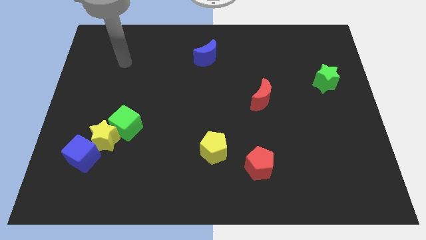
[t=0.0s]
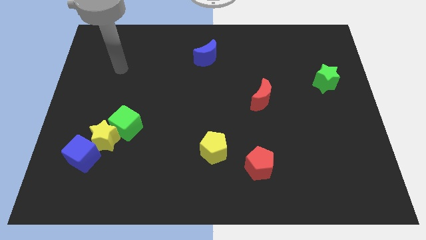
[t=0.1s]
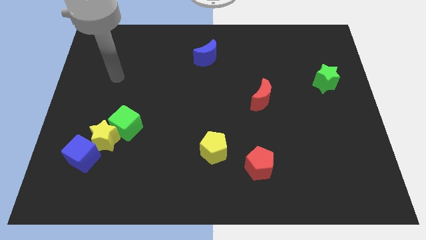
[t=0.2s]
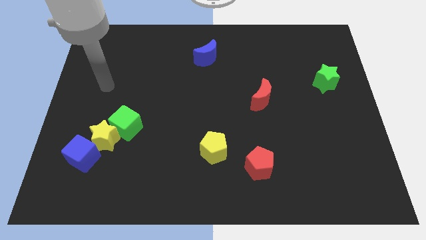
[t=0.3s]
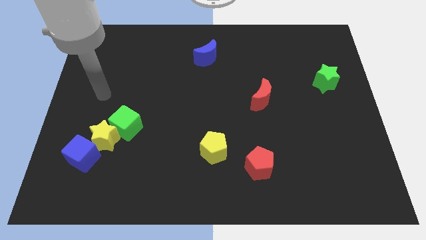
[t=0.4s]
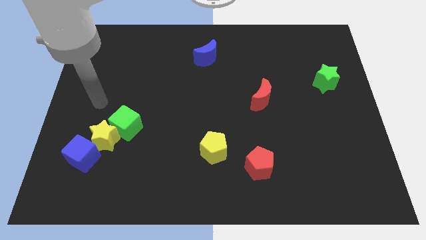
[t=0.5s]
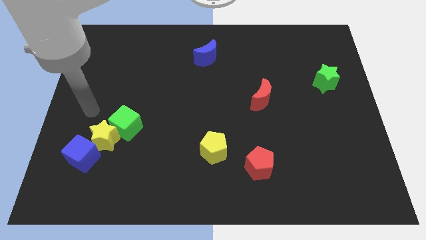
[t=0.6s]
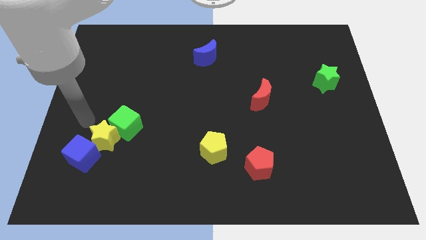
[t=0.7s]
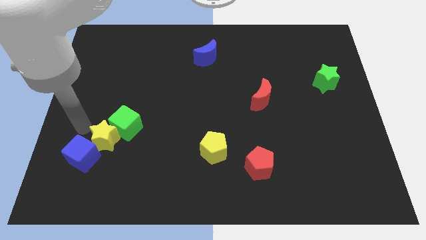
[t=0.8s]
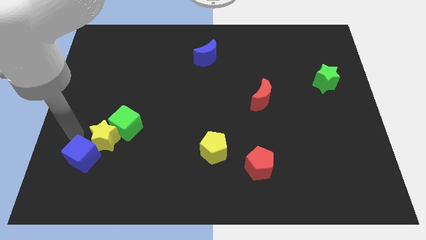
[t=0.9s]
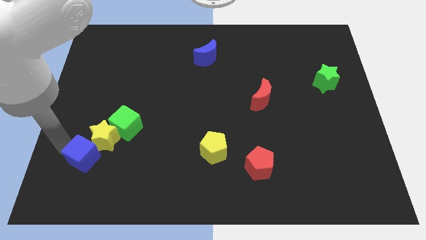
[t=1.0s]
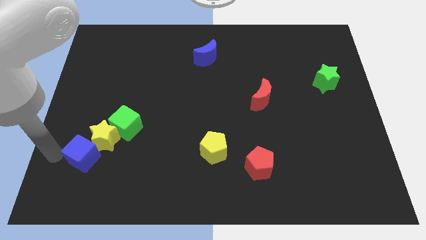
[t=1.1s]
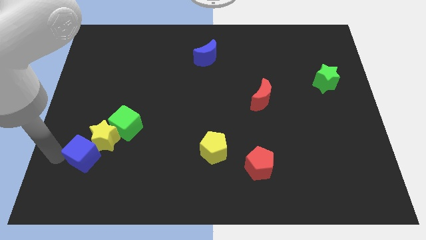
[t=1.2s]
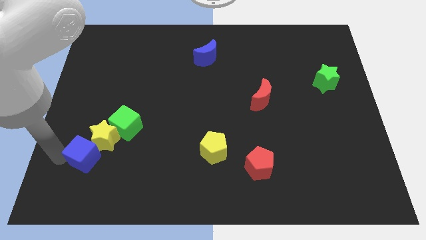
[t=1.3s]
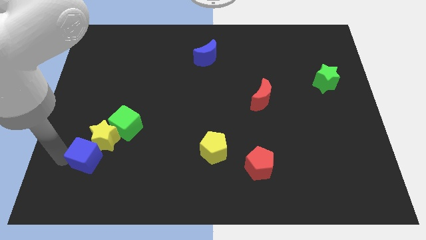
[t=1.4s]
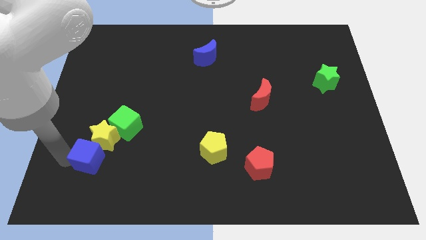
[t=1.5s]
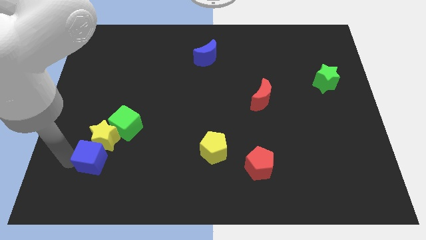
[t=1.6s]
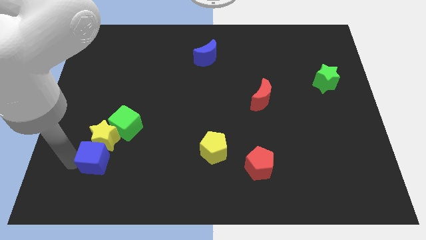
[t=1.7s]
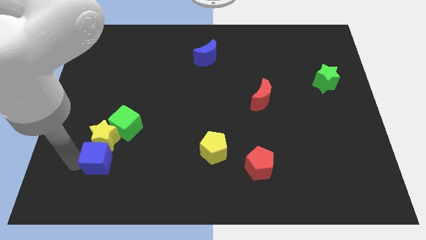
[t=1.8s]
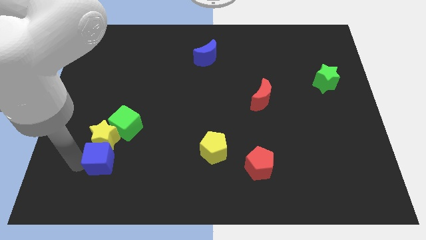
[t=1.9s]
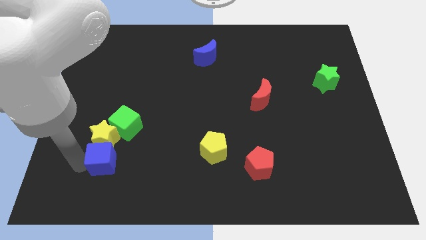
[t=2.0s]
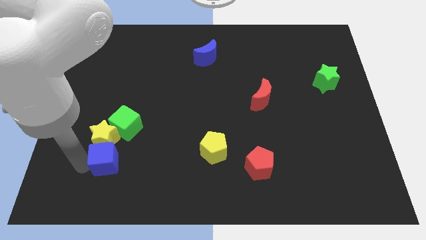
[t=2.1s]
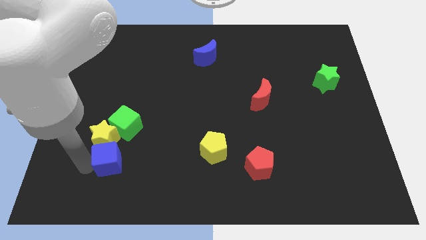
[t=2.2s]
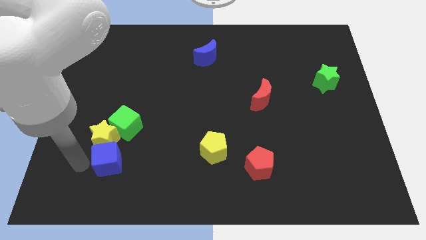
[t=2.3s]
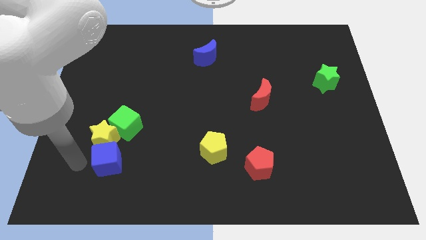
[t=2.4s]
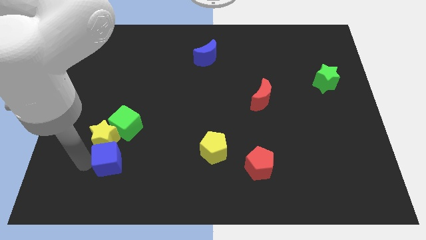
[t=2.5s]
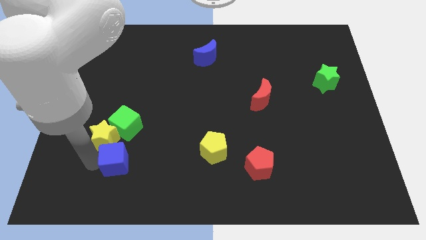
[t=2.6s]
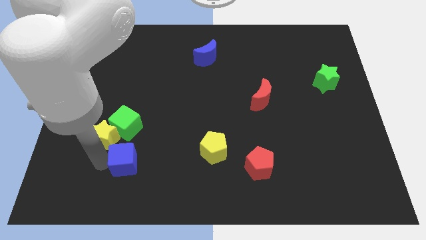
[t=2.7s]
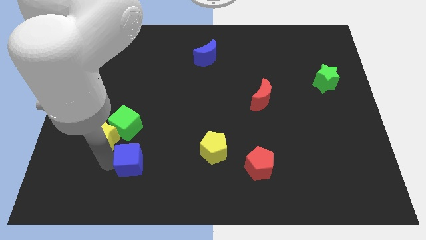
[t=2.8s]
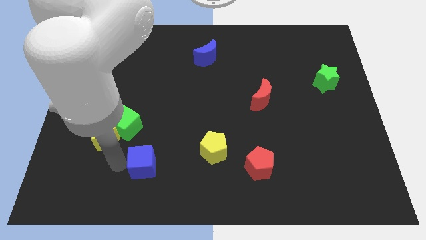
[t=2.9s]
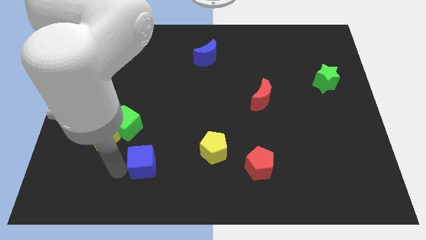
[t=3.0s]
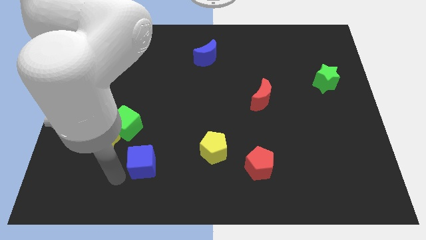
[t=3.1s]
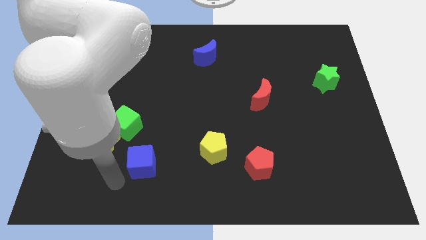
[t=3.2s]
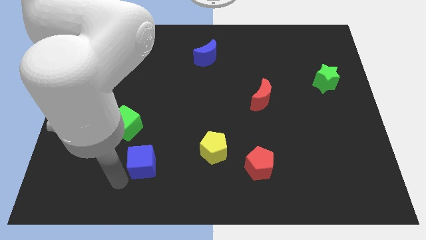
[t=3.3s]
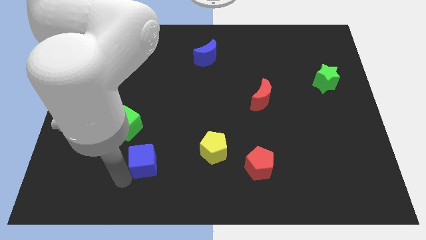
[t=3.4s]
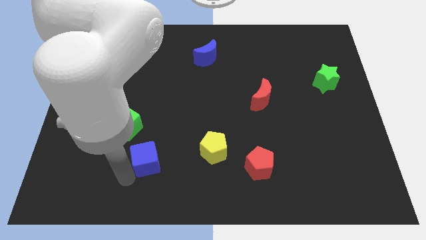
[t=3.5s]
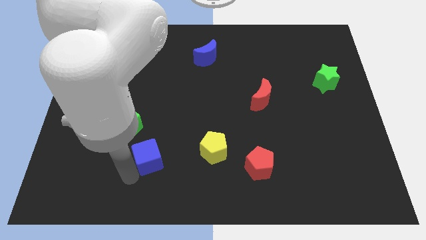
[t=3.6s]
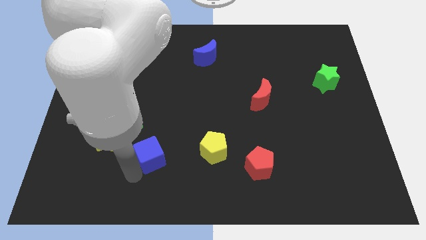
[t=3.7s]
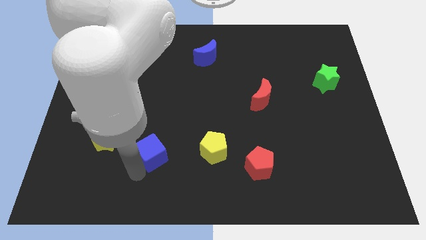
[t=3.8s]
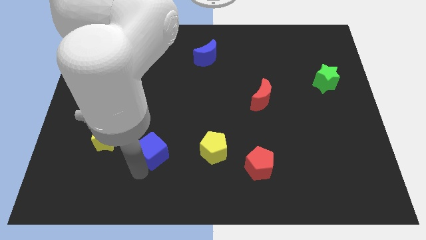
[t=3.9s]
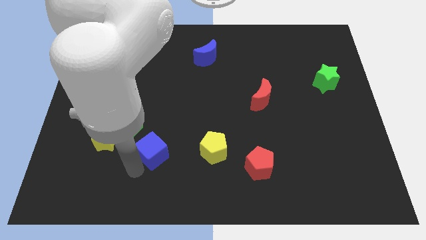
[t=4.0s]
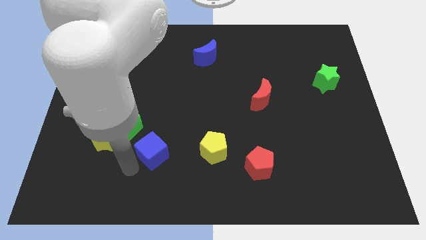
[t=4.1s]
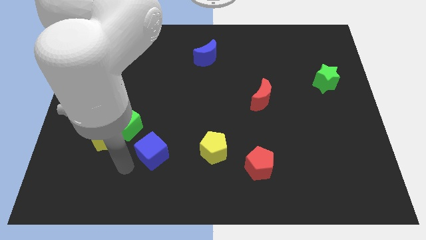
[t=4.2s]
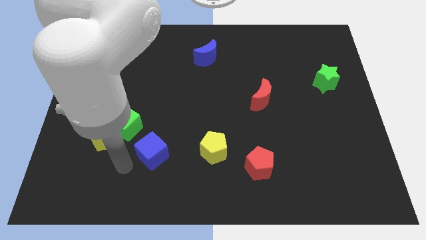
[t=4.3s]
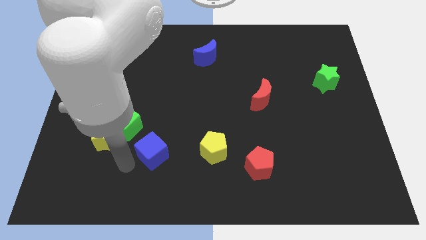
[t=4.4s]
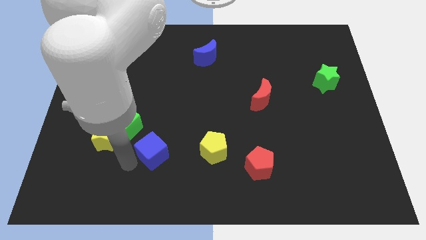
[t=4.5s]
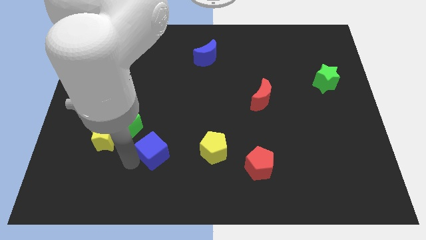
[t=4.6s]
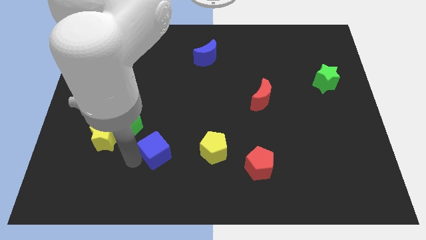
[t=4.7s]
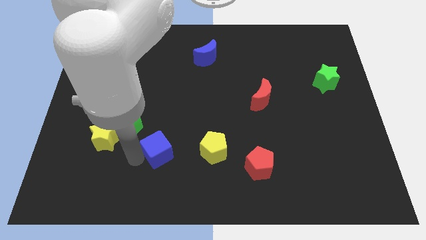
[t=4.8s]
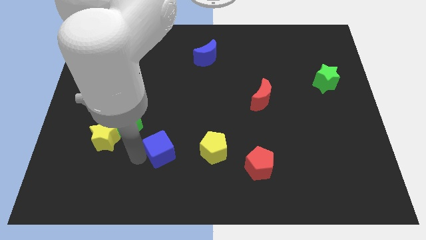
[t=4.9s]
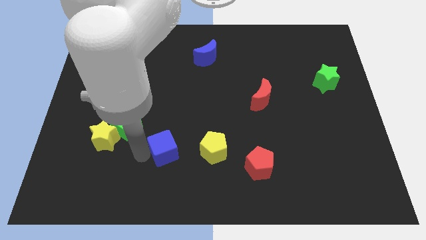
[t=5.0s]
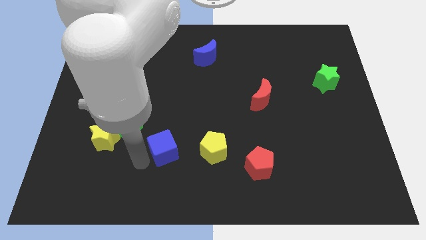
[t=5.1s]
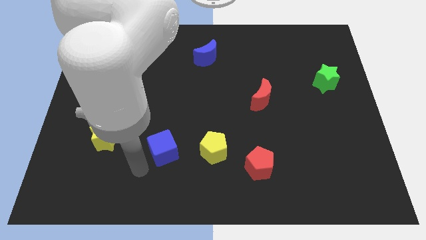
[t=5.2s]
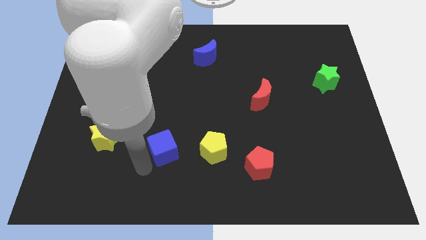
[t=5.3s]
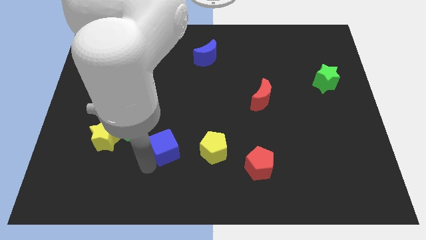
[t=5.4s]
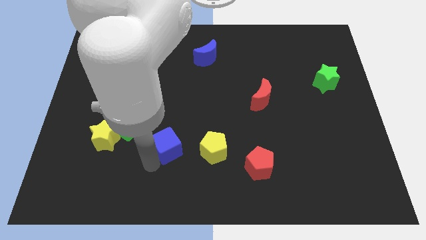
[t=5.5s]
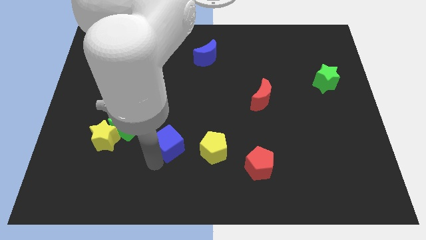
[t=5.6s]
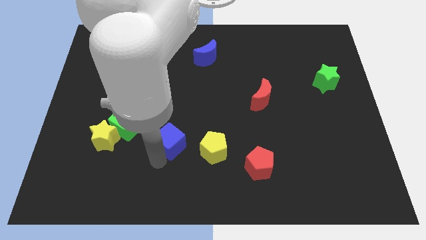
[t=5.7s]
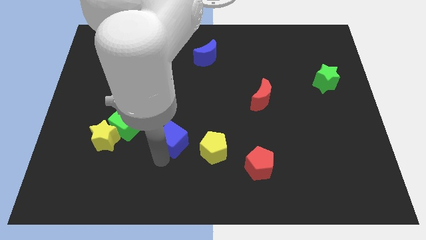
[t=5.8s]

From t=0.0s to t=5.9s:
slide the blue cube diagonally up and to the left of the yellow pentagon

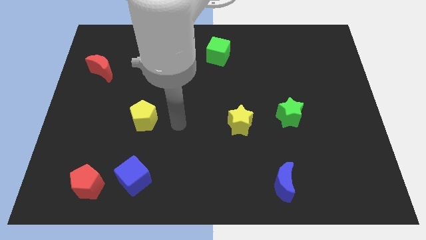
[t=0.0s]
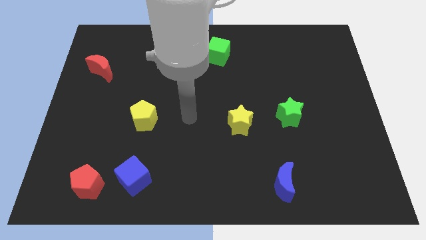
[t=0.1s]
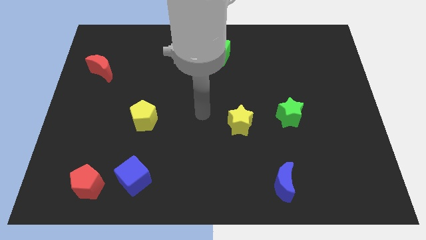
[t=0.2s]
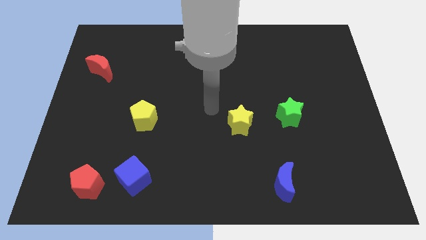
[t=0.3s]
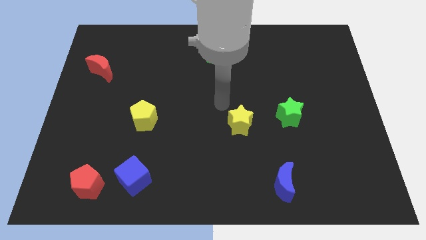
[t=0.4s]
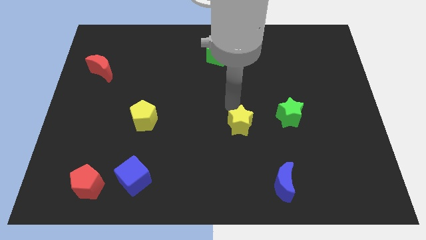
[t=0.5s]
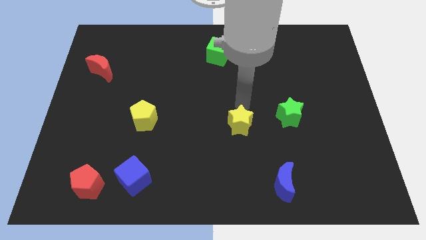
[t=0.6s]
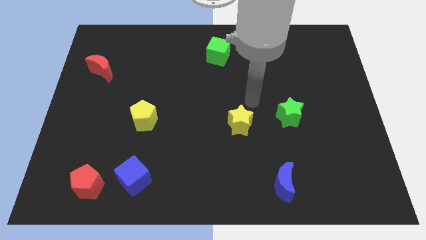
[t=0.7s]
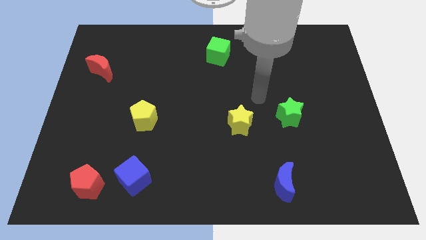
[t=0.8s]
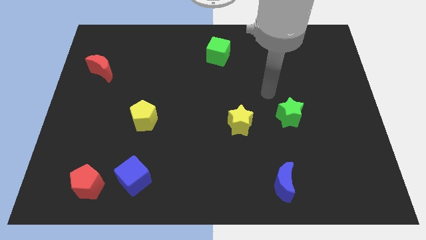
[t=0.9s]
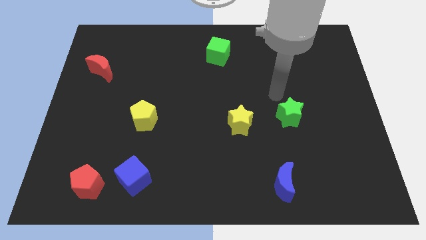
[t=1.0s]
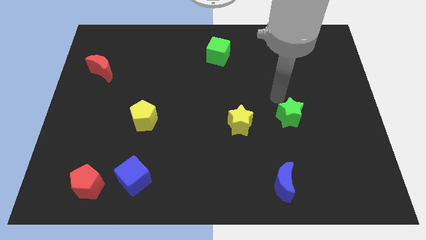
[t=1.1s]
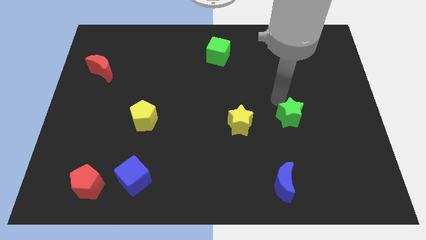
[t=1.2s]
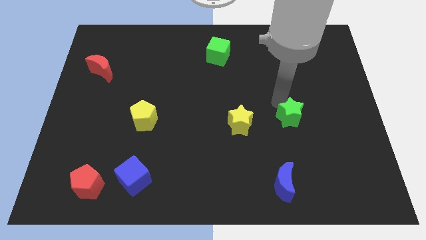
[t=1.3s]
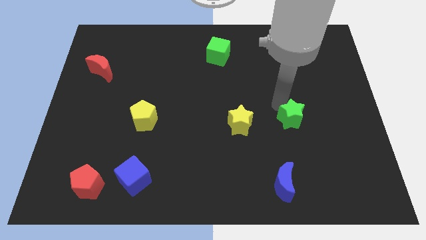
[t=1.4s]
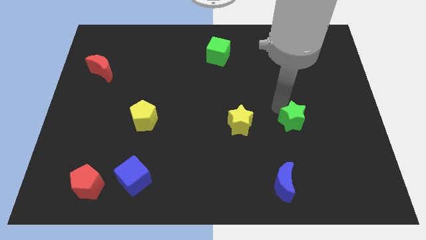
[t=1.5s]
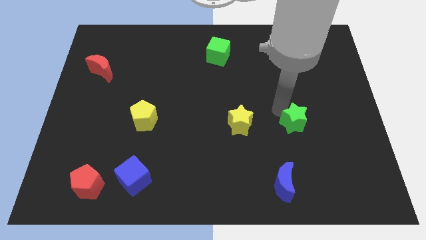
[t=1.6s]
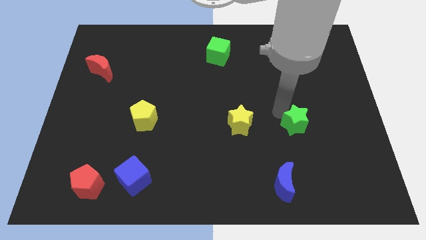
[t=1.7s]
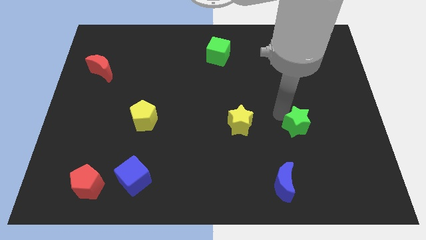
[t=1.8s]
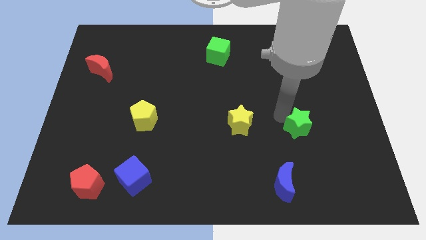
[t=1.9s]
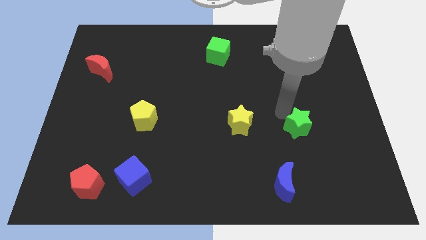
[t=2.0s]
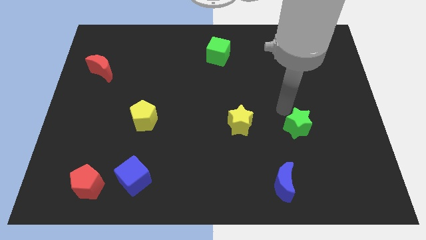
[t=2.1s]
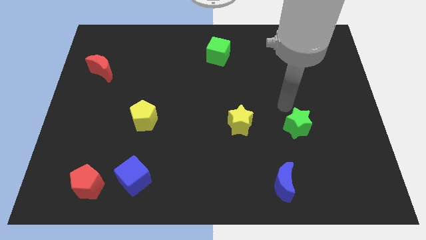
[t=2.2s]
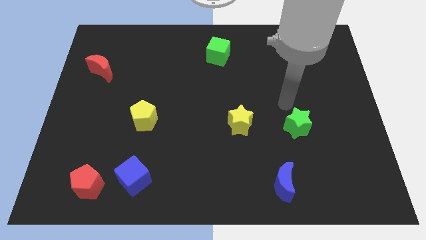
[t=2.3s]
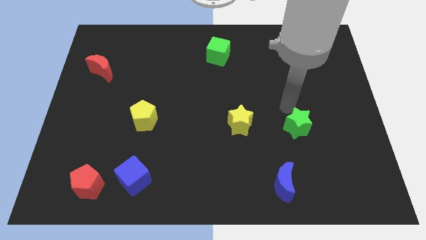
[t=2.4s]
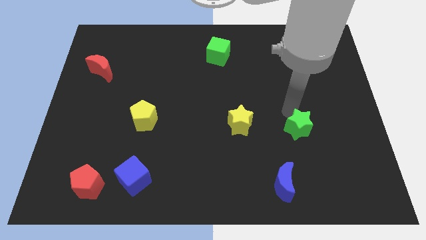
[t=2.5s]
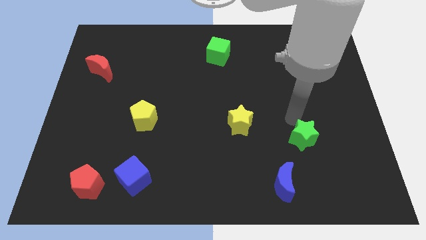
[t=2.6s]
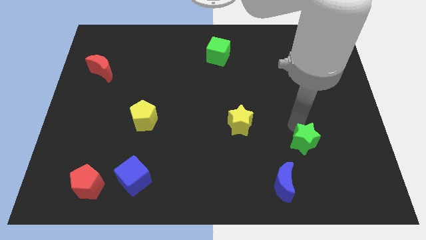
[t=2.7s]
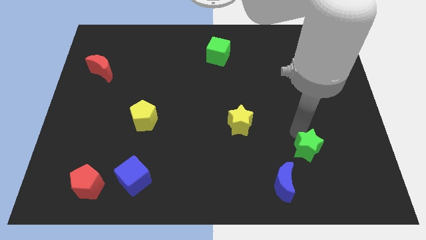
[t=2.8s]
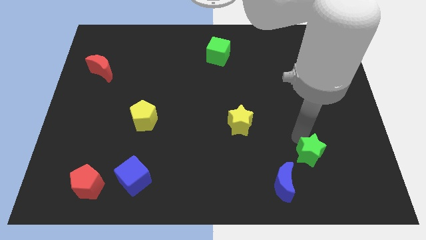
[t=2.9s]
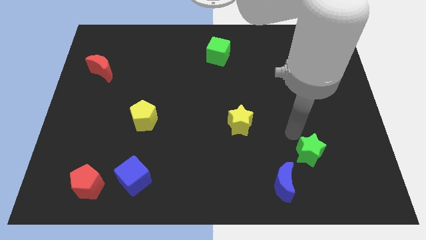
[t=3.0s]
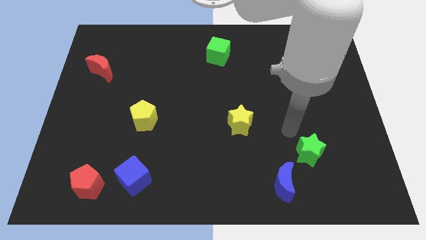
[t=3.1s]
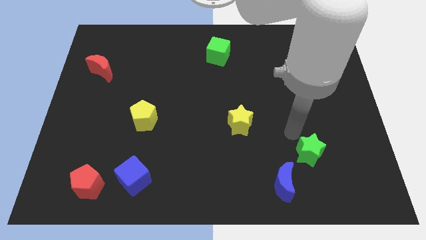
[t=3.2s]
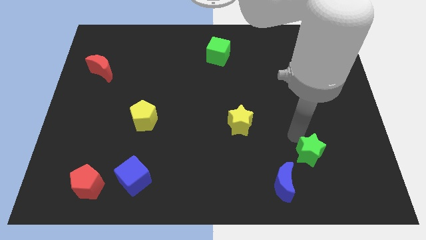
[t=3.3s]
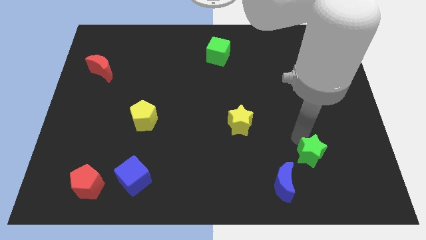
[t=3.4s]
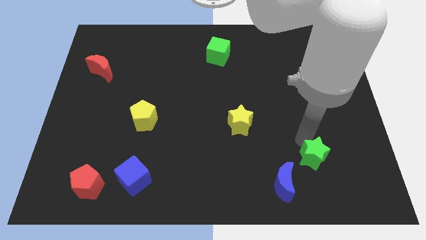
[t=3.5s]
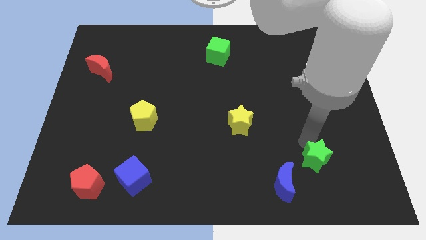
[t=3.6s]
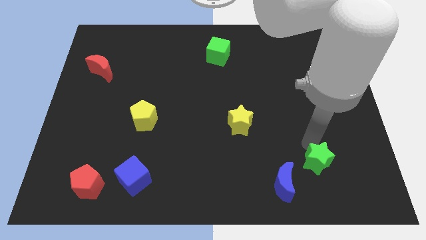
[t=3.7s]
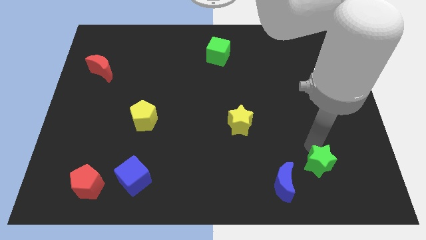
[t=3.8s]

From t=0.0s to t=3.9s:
move the green star just right of the blue moon